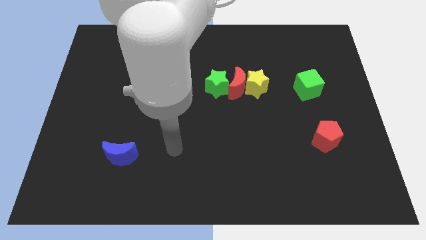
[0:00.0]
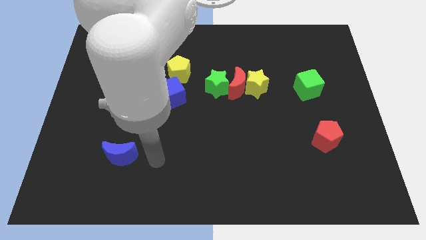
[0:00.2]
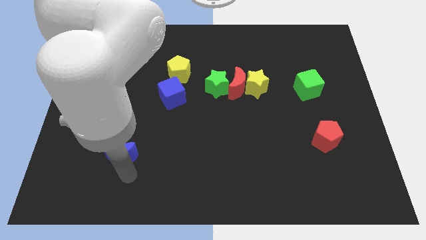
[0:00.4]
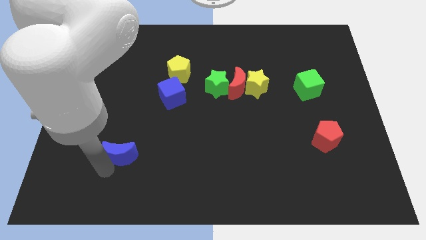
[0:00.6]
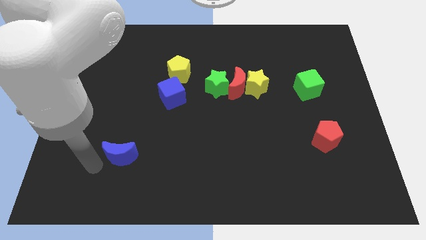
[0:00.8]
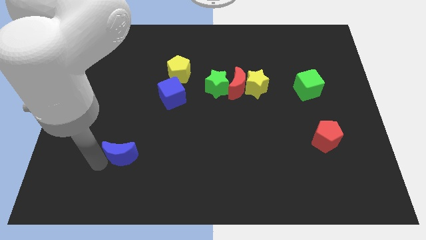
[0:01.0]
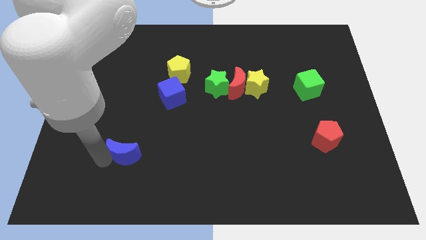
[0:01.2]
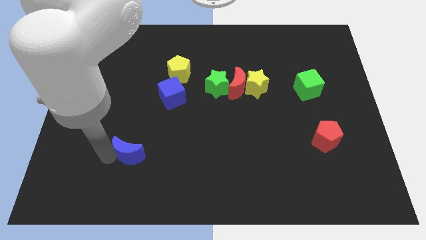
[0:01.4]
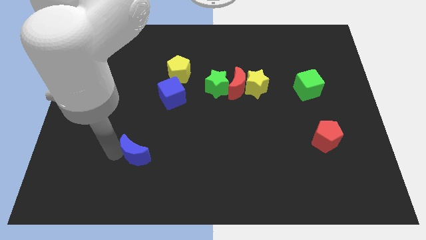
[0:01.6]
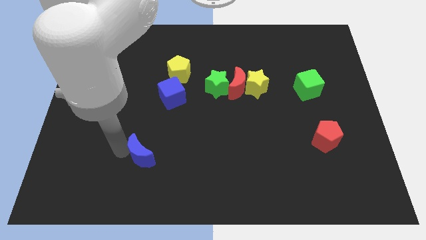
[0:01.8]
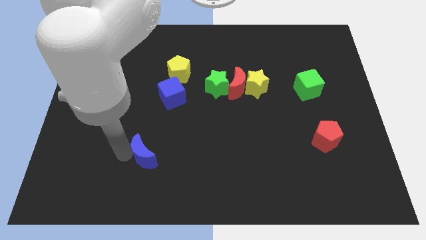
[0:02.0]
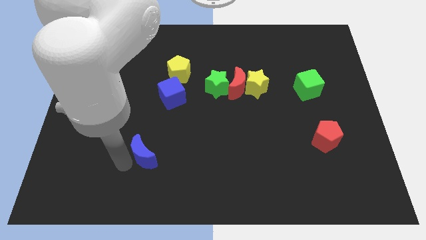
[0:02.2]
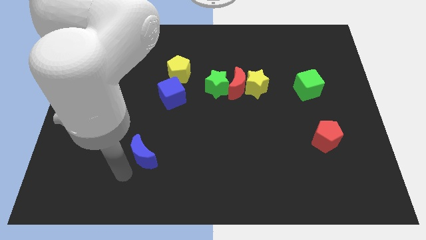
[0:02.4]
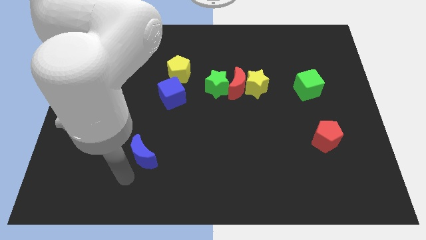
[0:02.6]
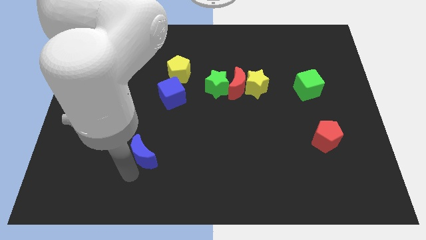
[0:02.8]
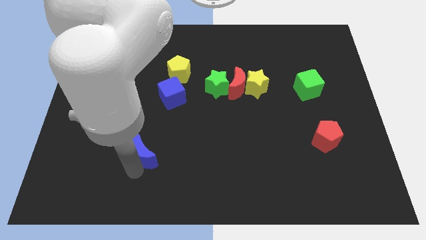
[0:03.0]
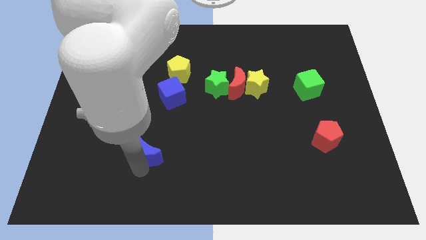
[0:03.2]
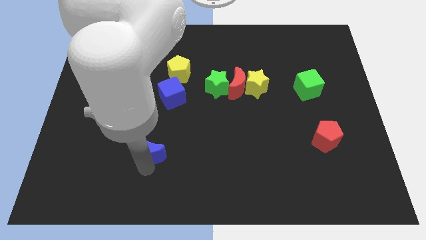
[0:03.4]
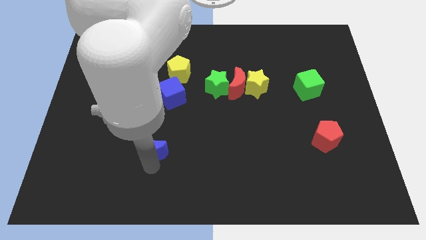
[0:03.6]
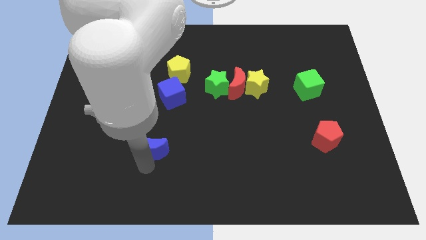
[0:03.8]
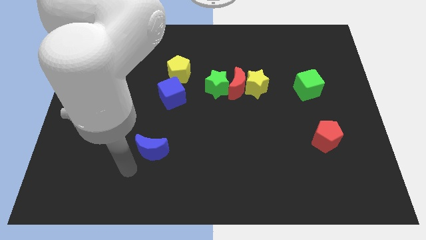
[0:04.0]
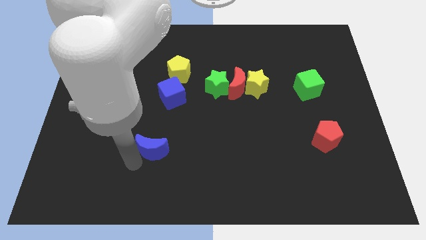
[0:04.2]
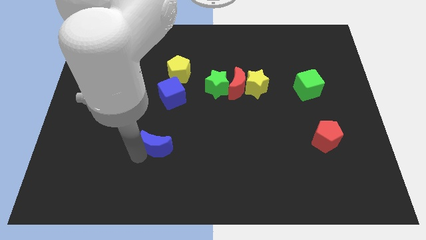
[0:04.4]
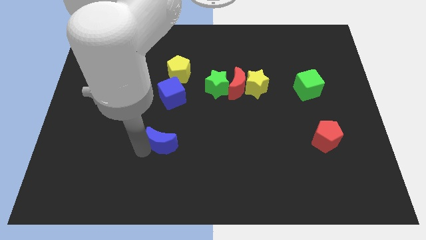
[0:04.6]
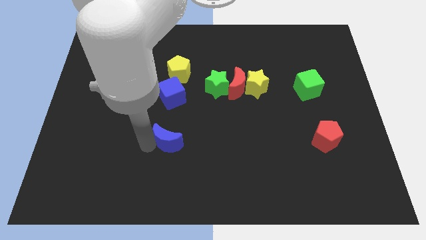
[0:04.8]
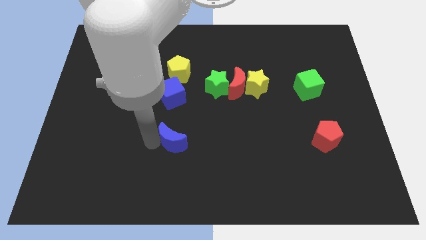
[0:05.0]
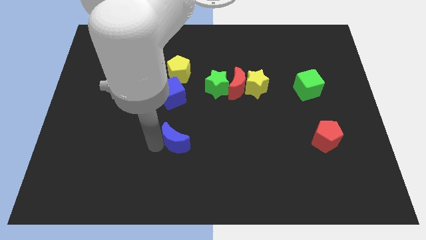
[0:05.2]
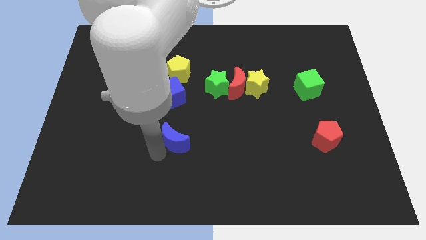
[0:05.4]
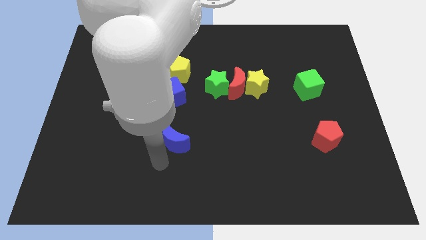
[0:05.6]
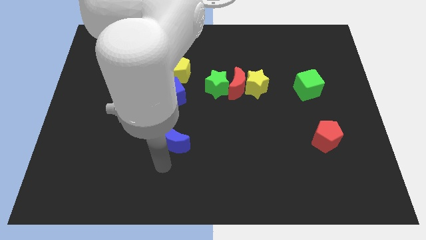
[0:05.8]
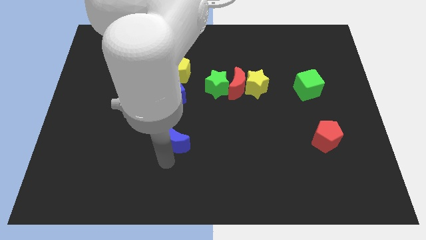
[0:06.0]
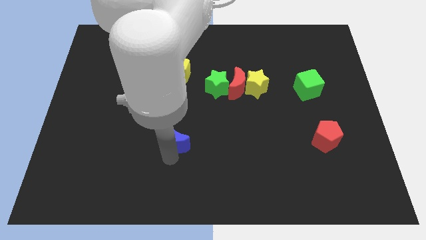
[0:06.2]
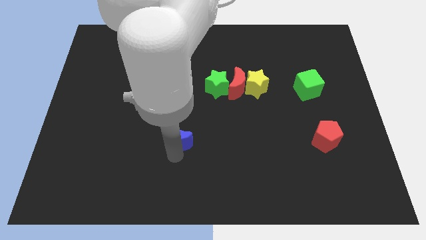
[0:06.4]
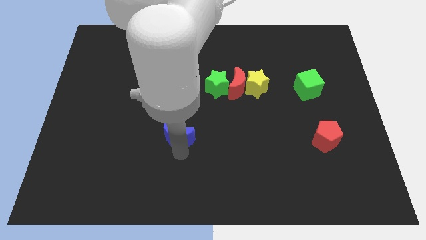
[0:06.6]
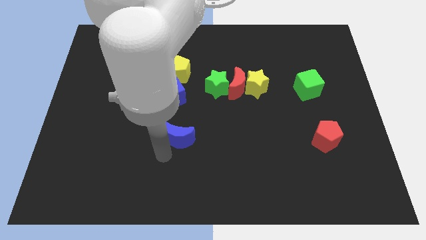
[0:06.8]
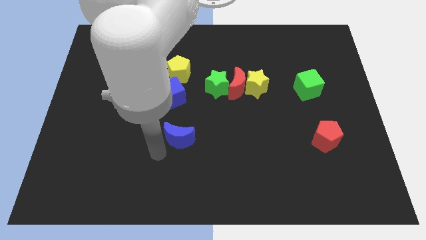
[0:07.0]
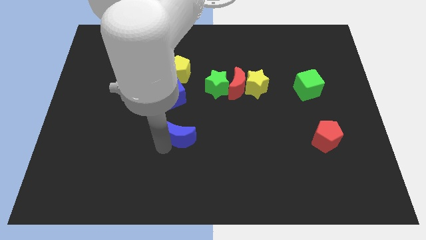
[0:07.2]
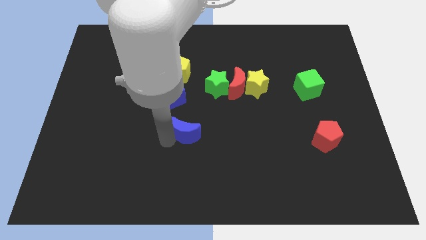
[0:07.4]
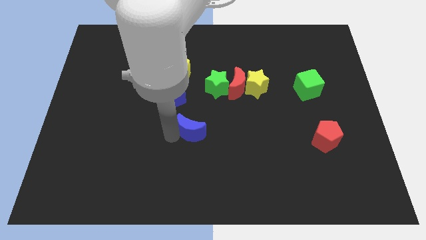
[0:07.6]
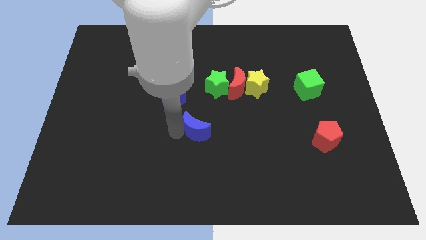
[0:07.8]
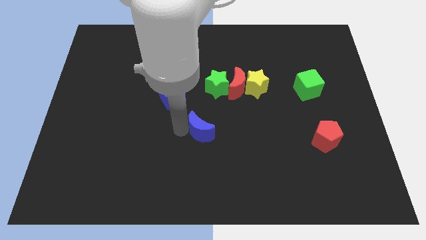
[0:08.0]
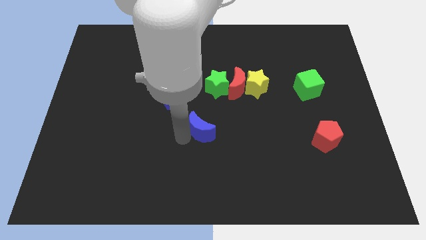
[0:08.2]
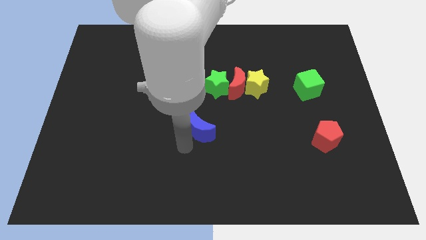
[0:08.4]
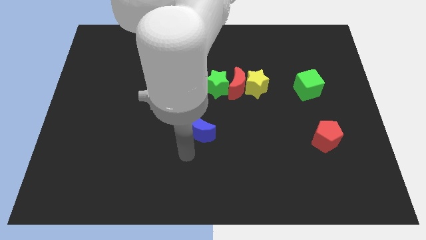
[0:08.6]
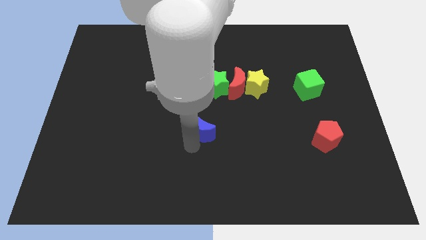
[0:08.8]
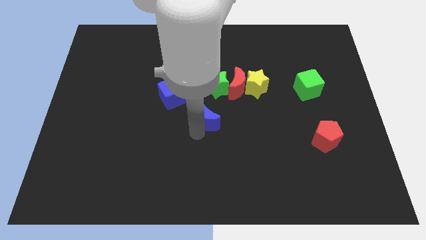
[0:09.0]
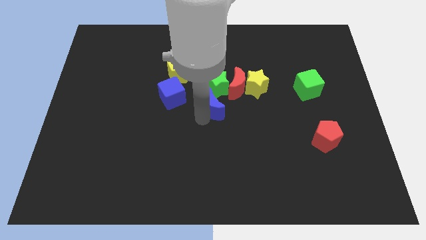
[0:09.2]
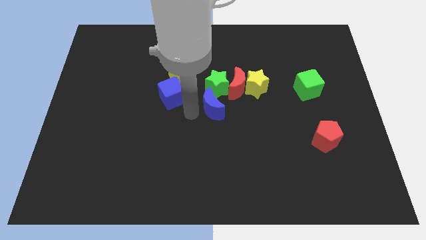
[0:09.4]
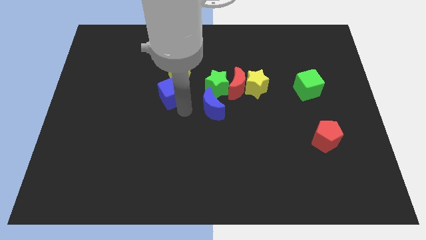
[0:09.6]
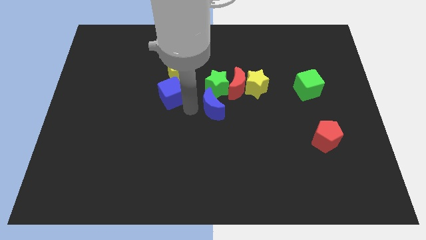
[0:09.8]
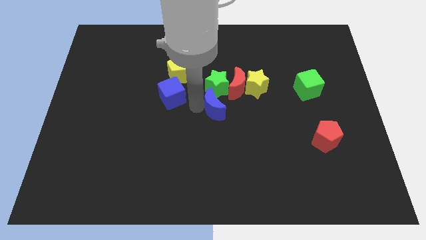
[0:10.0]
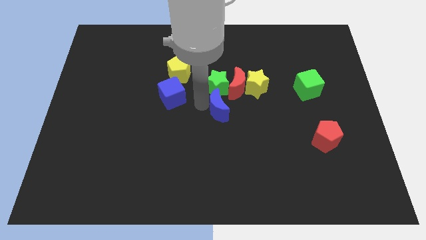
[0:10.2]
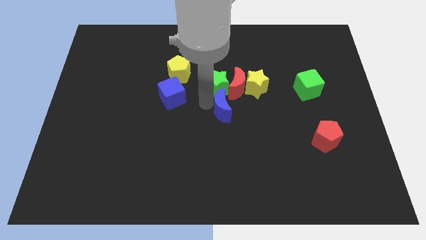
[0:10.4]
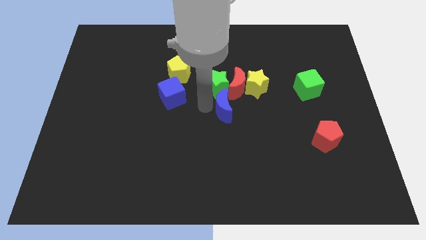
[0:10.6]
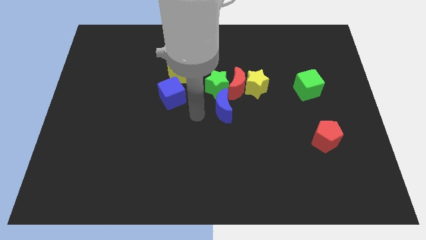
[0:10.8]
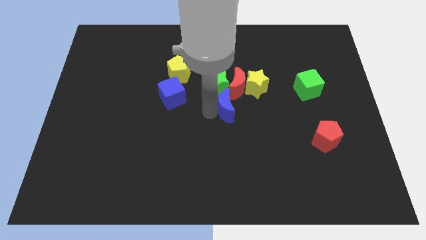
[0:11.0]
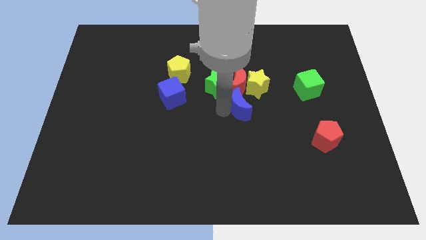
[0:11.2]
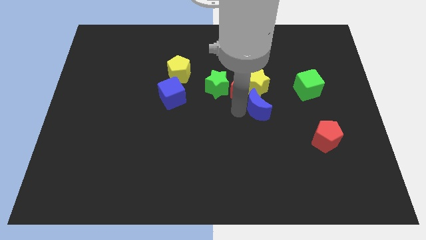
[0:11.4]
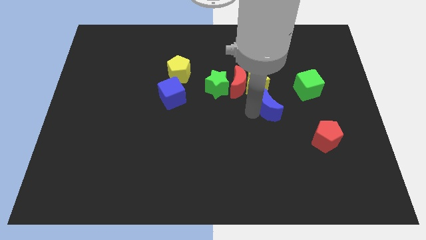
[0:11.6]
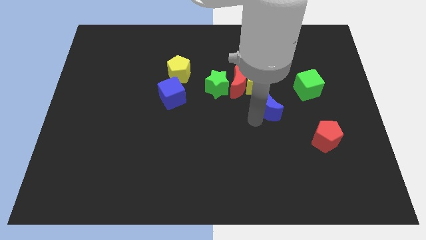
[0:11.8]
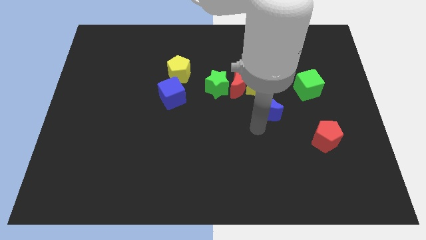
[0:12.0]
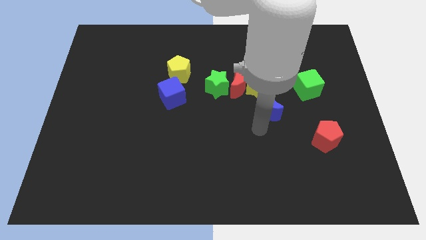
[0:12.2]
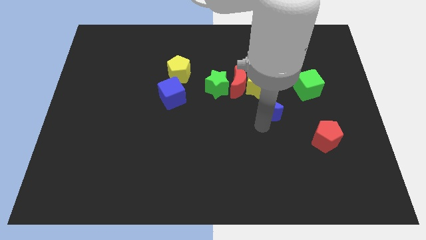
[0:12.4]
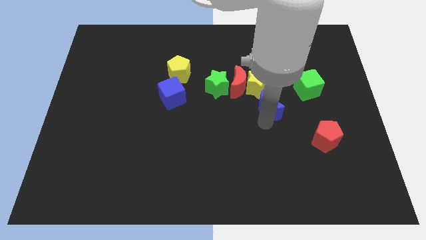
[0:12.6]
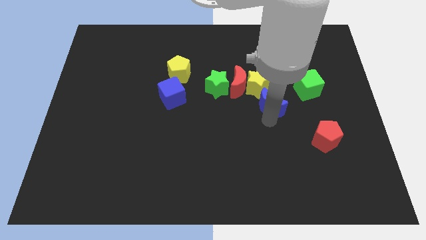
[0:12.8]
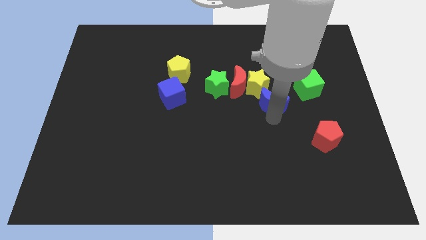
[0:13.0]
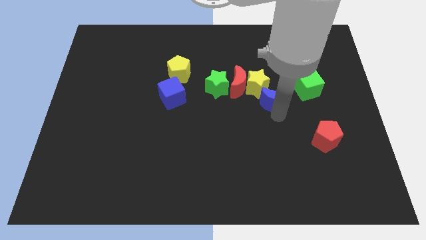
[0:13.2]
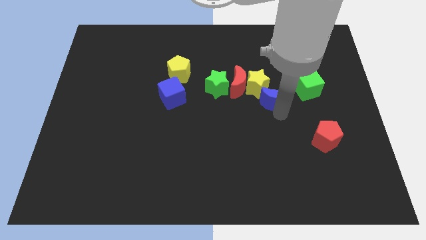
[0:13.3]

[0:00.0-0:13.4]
move the blue moon right of the green star

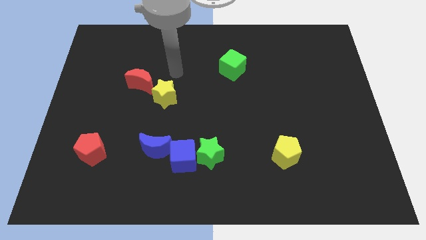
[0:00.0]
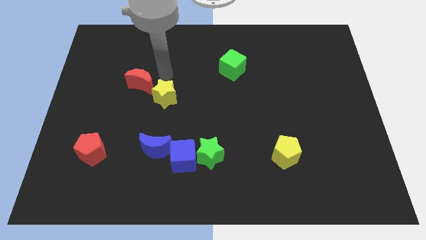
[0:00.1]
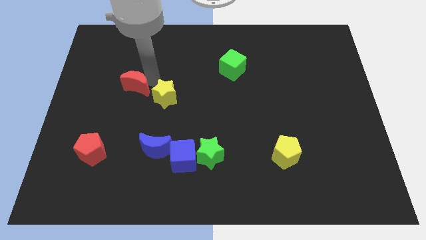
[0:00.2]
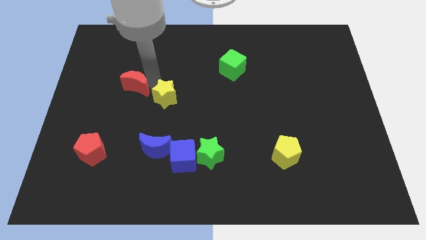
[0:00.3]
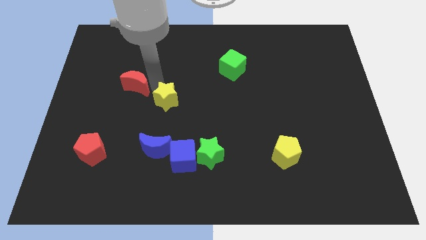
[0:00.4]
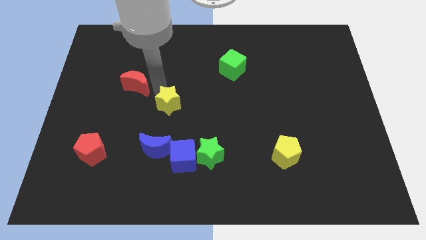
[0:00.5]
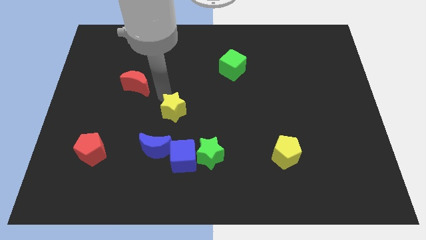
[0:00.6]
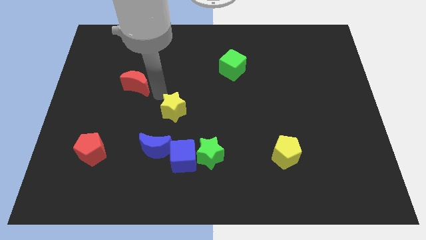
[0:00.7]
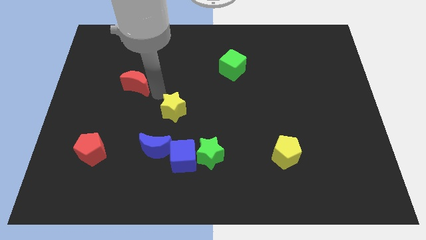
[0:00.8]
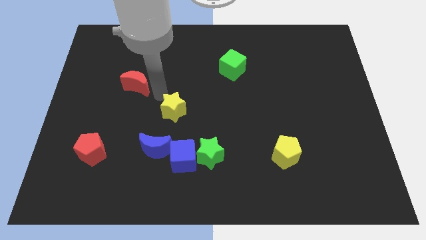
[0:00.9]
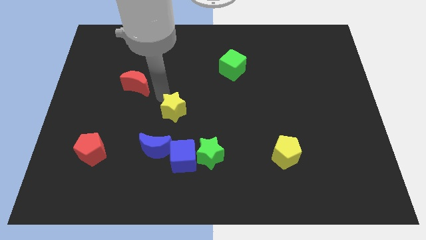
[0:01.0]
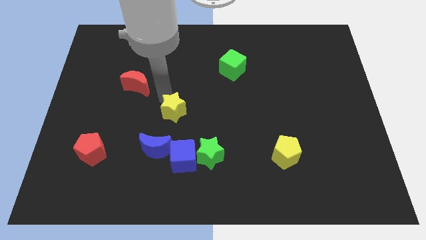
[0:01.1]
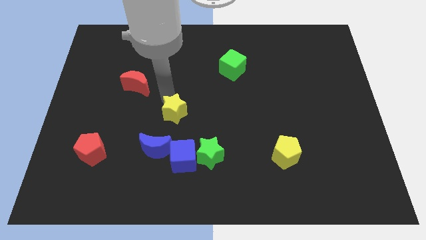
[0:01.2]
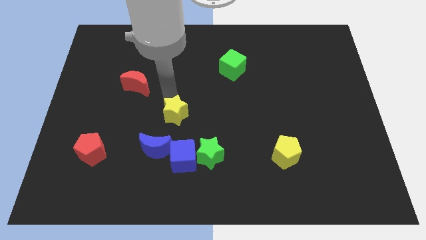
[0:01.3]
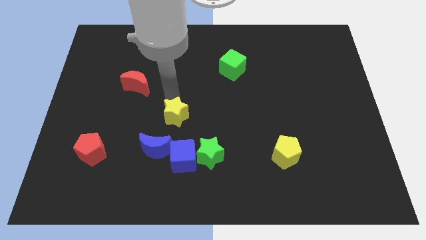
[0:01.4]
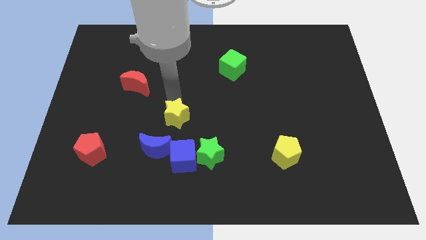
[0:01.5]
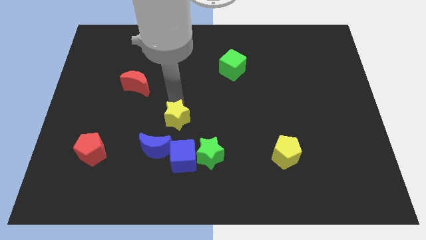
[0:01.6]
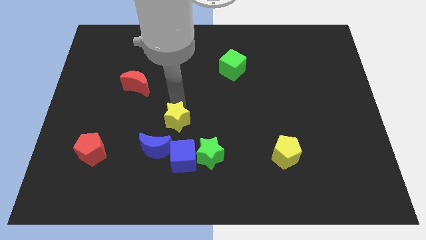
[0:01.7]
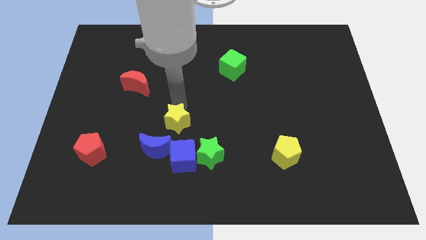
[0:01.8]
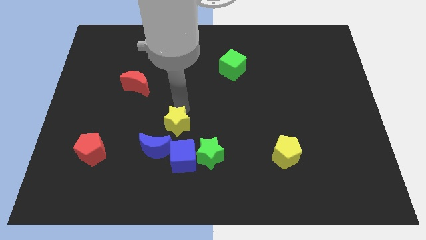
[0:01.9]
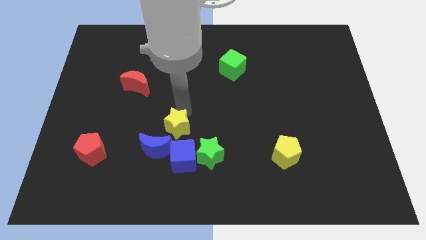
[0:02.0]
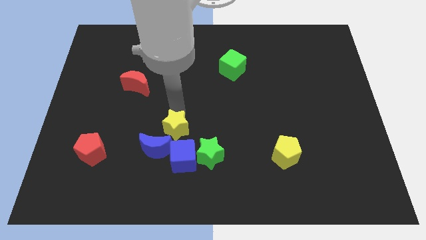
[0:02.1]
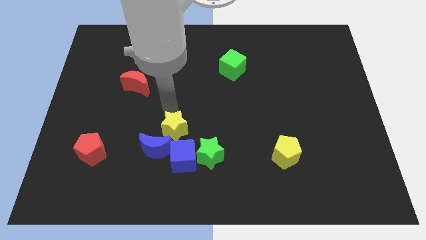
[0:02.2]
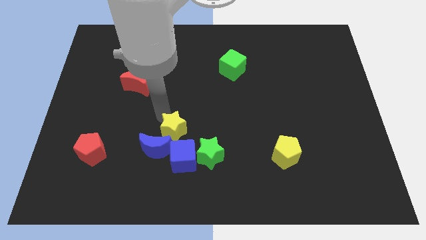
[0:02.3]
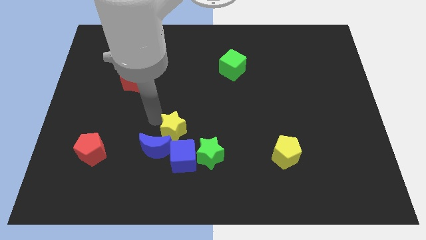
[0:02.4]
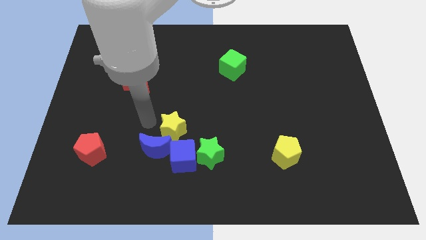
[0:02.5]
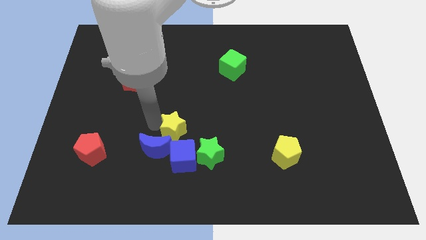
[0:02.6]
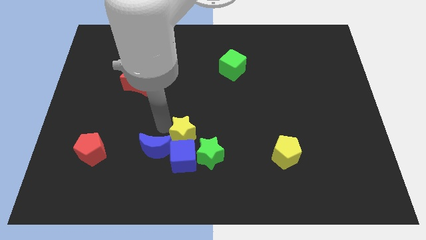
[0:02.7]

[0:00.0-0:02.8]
put the yellow star to the top right side of the blue cube
